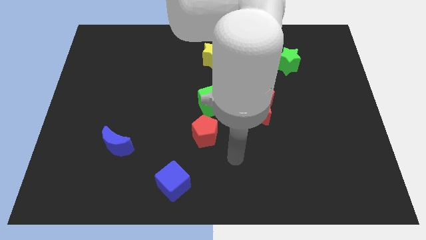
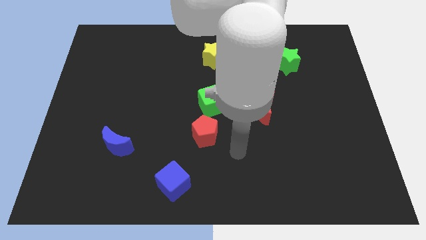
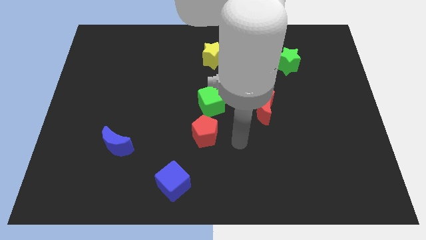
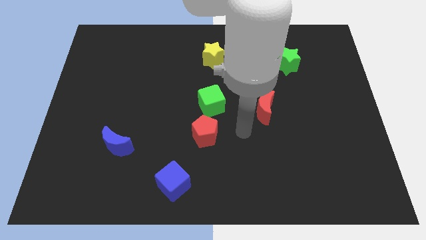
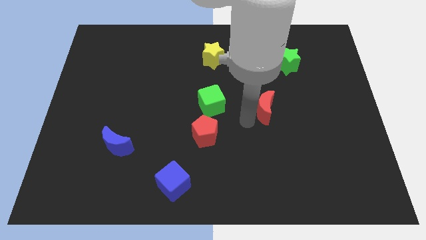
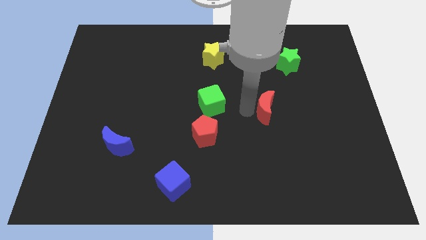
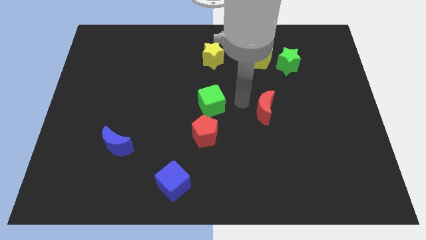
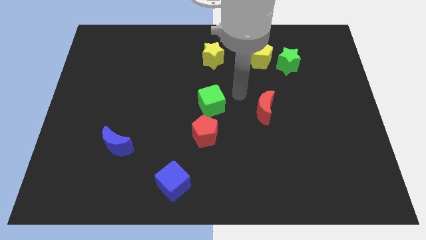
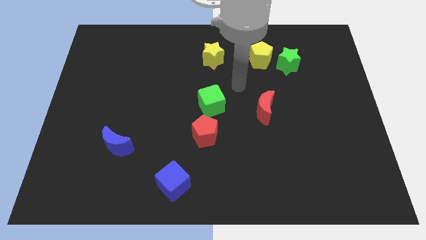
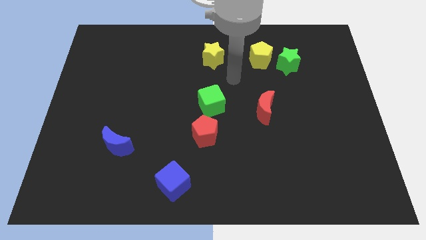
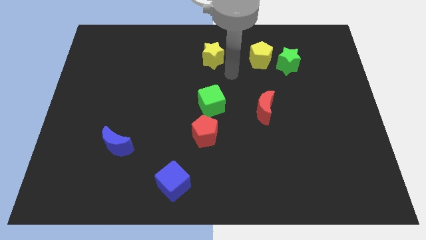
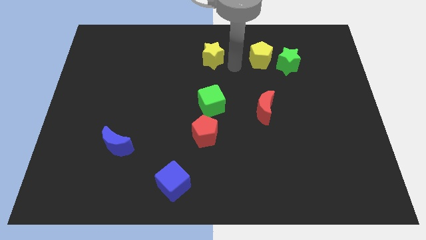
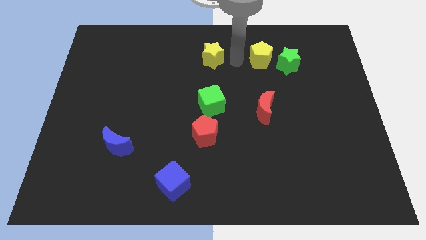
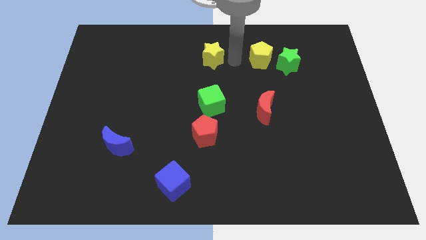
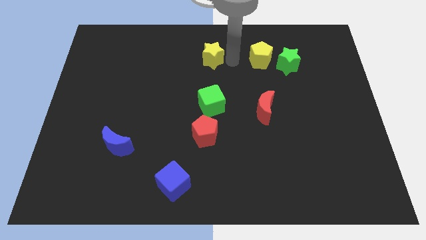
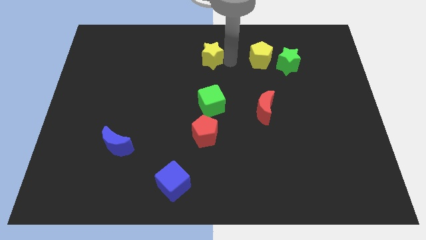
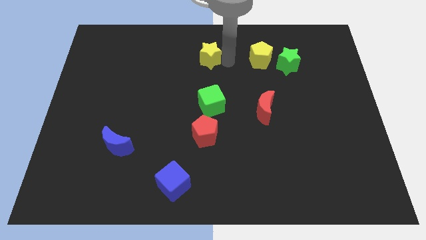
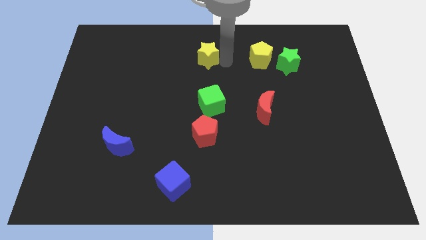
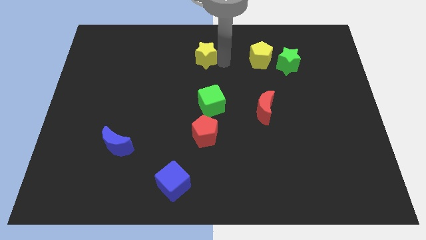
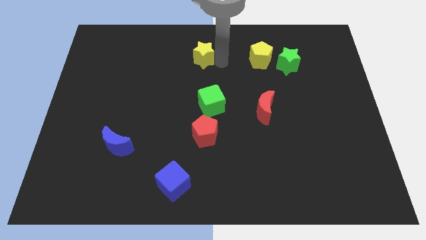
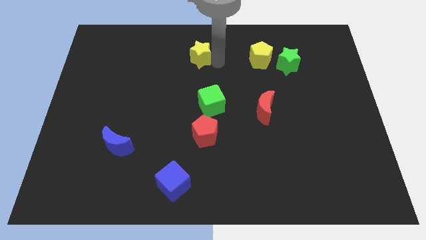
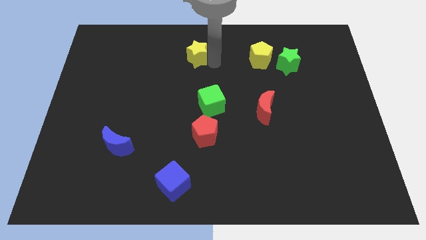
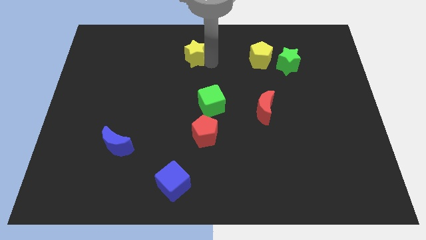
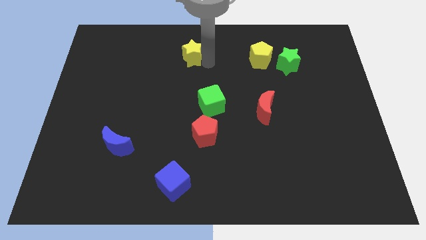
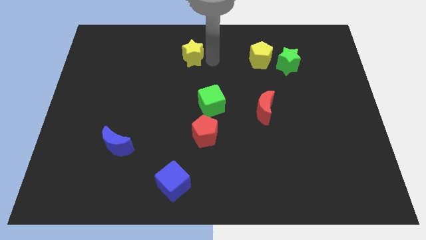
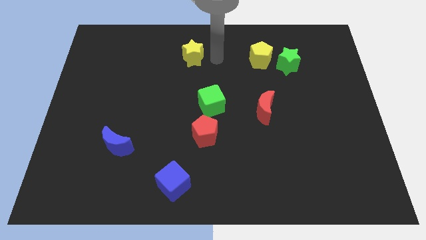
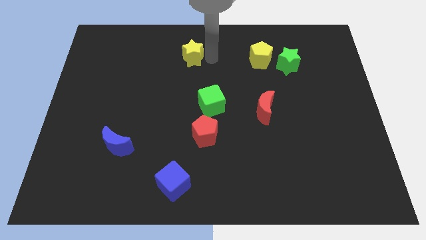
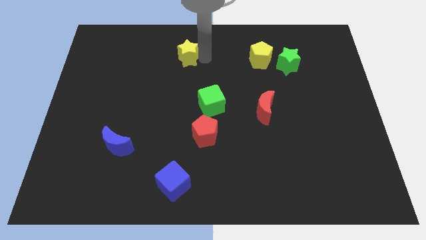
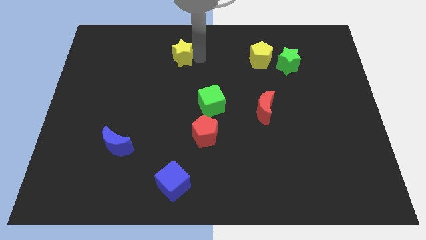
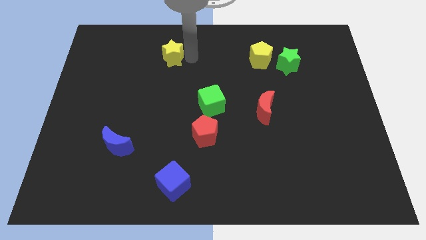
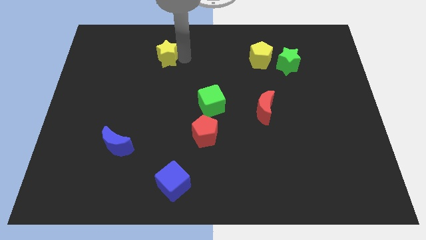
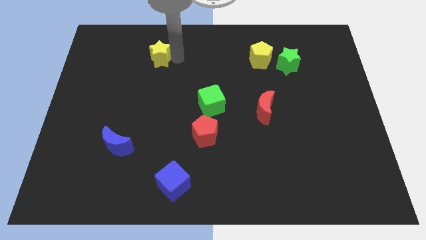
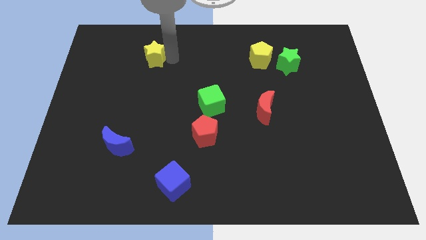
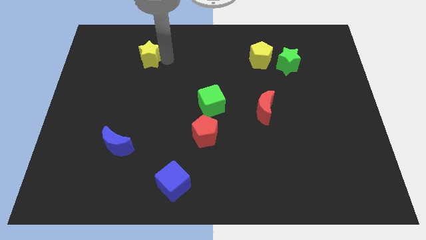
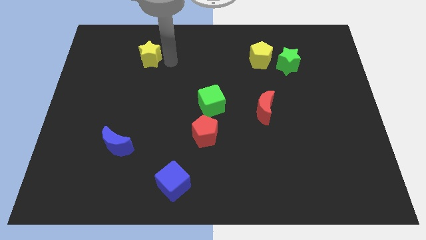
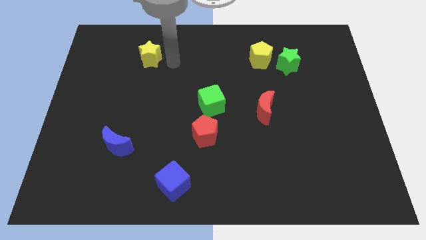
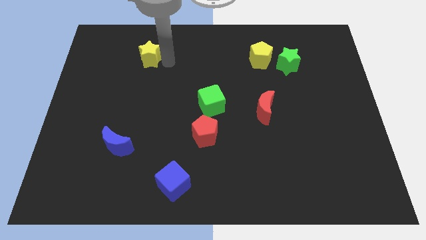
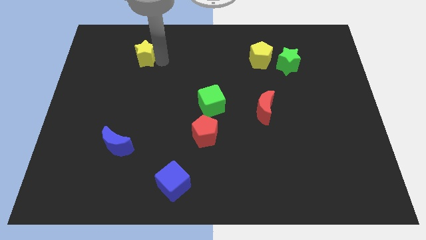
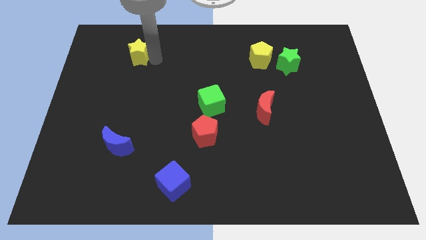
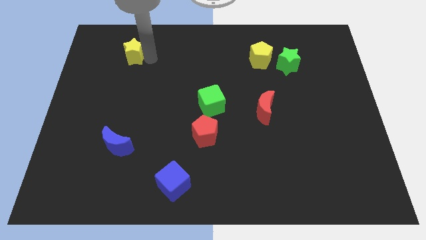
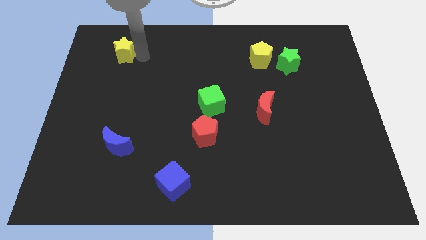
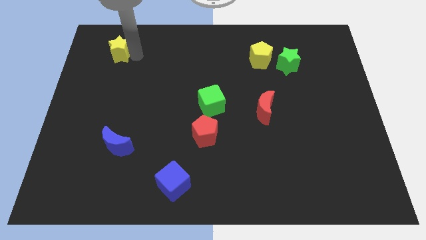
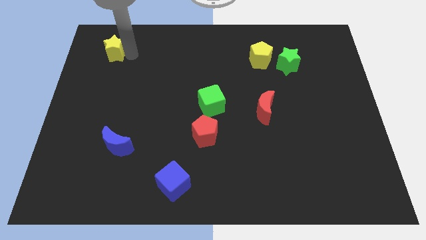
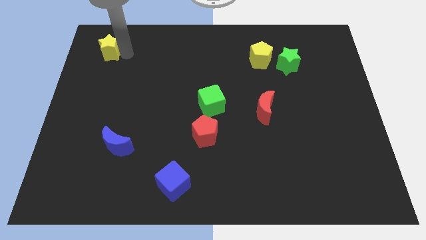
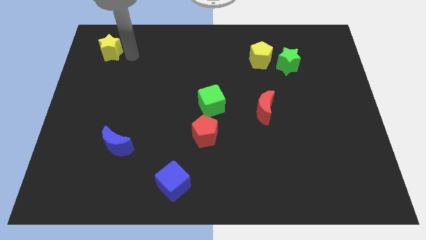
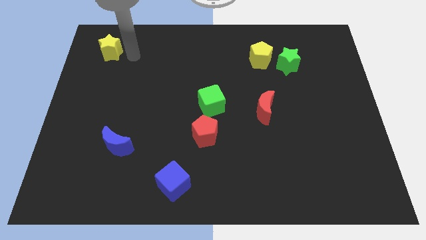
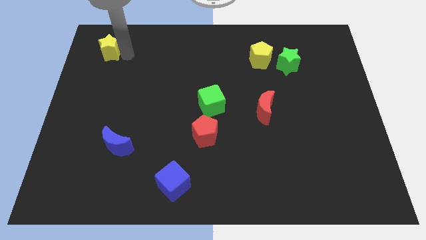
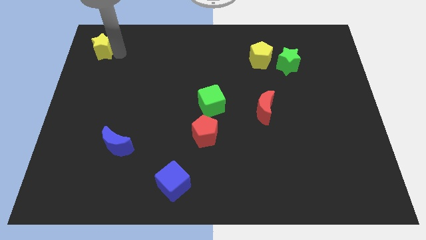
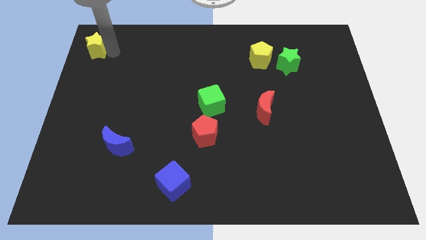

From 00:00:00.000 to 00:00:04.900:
push the yellow star to the top left of the board

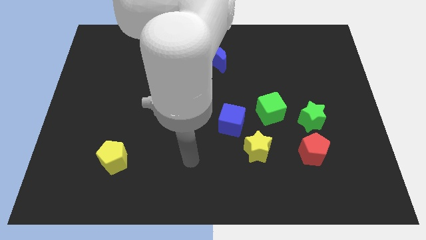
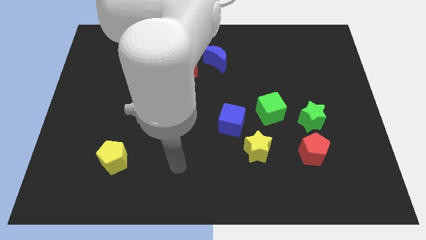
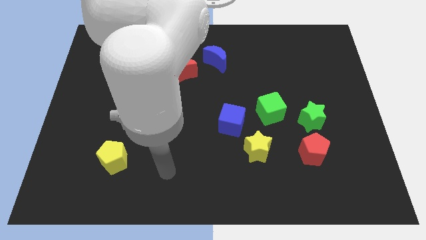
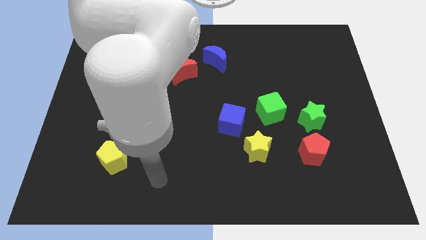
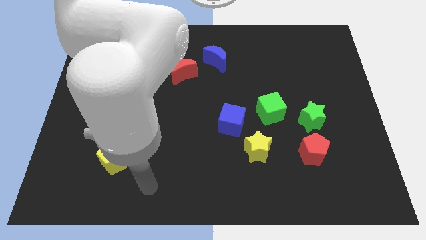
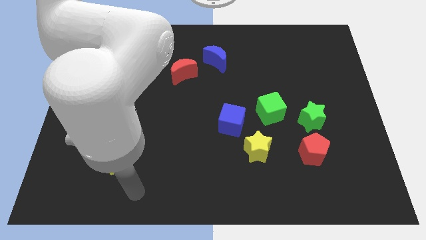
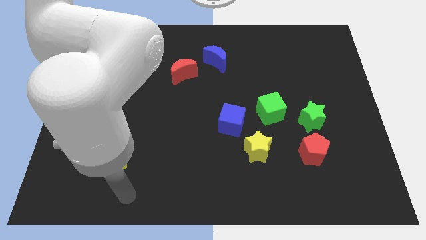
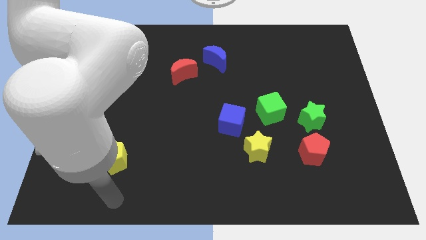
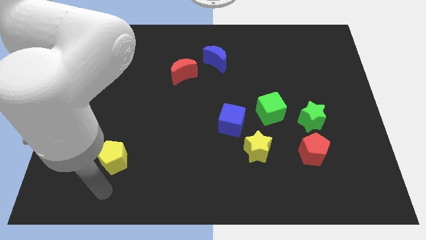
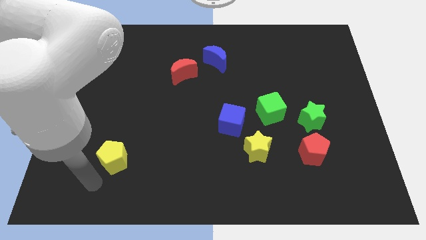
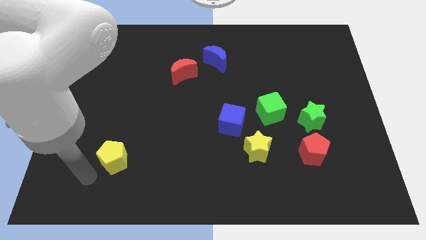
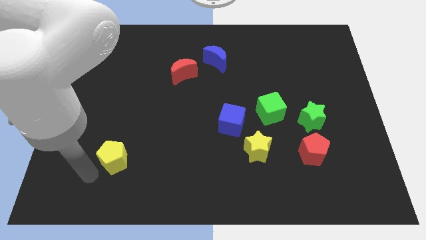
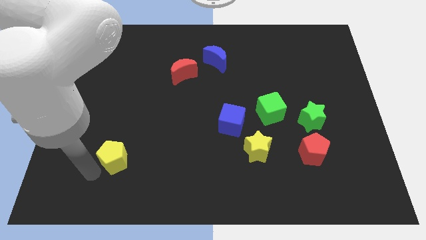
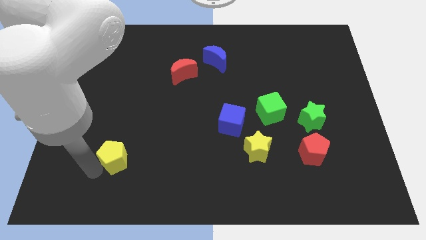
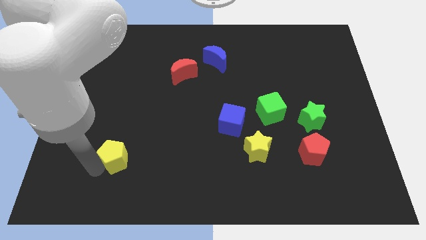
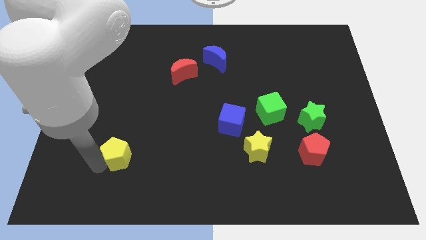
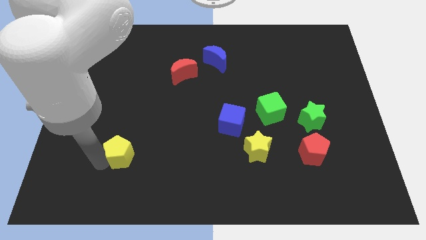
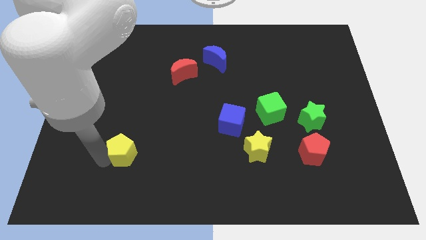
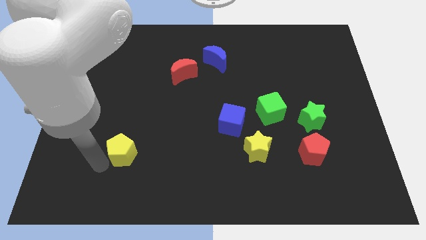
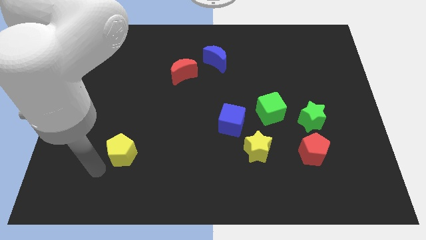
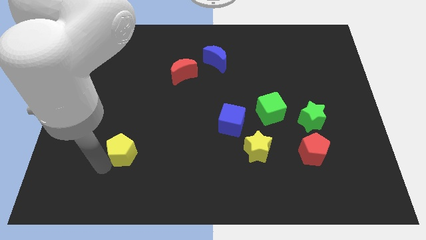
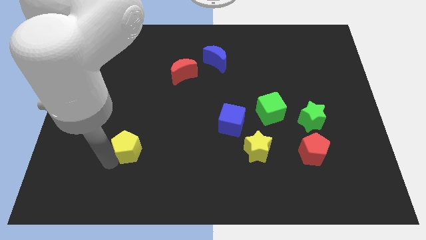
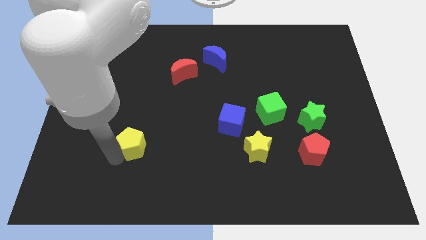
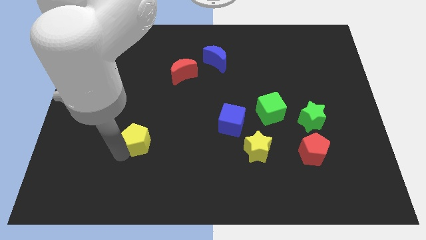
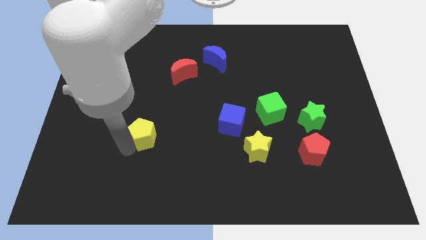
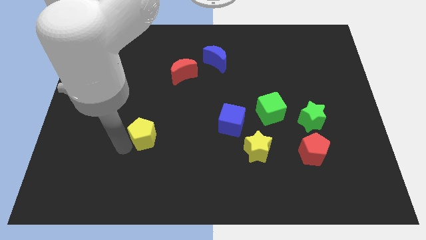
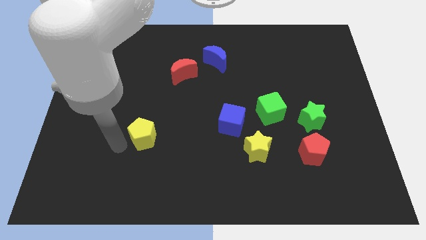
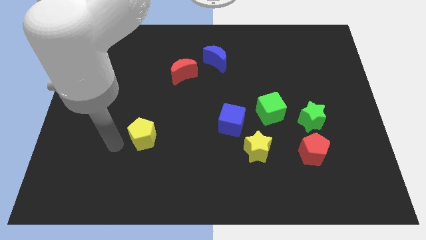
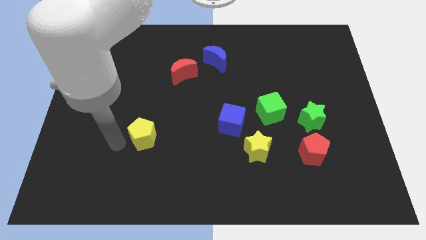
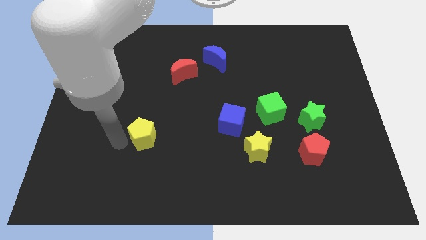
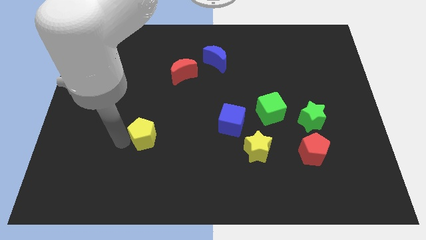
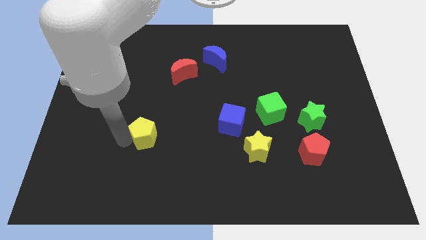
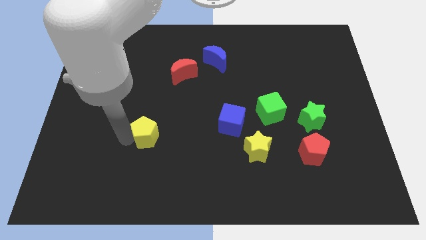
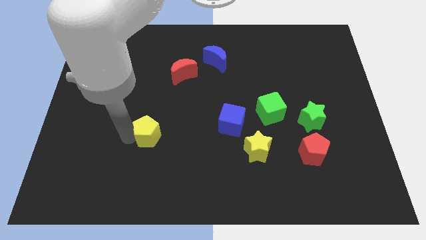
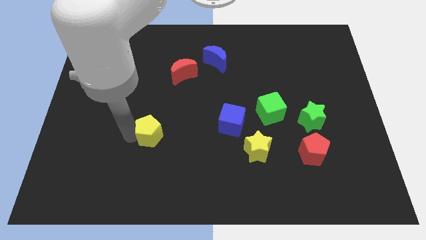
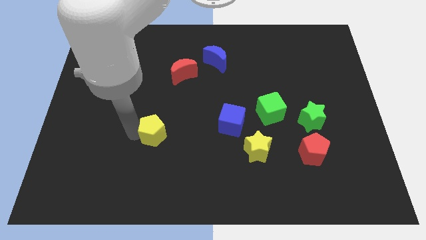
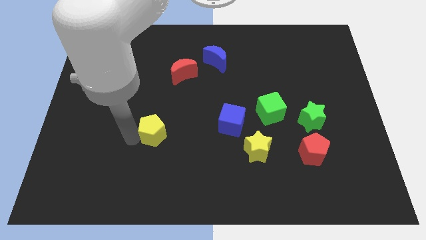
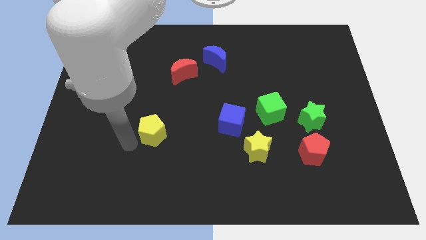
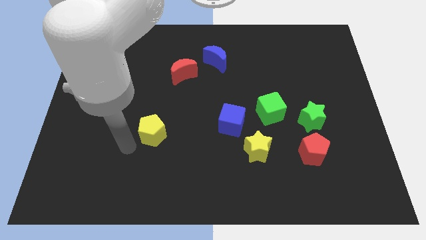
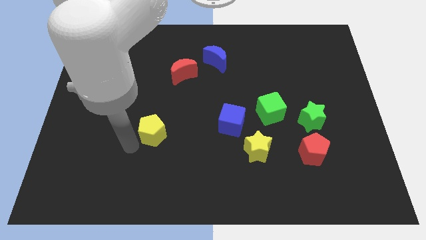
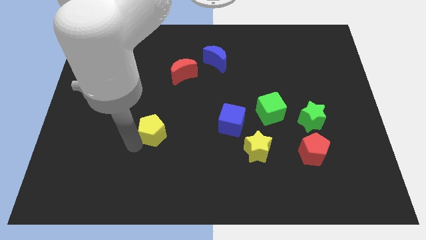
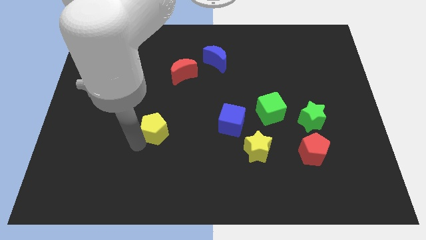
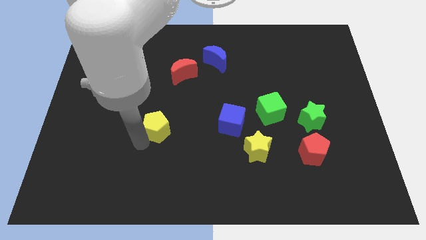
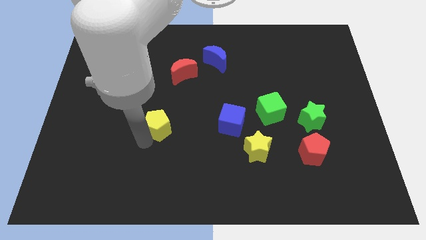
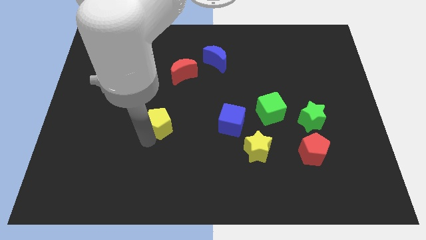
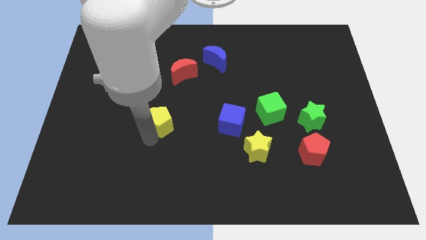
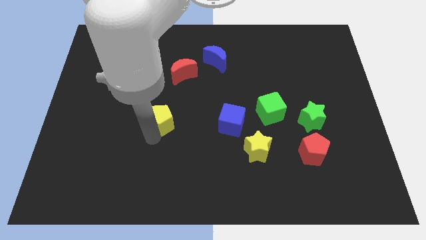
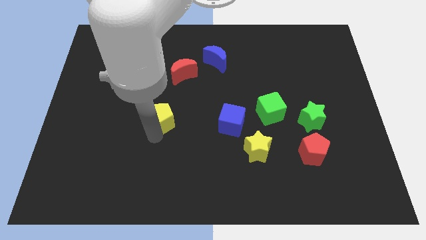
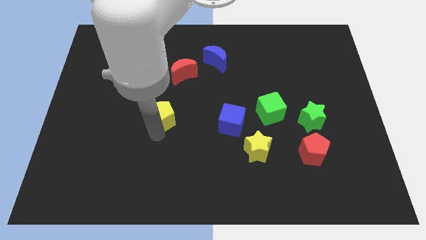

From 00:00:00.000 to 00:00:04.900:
move the yellow pentagon to the center of the board
